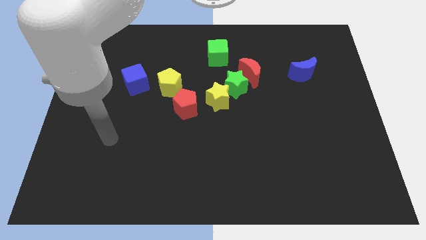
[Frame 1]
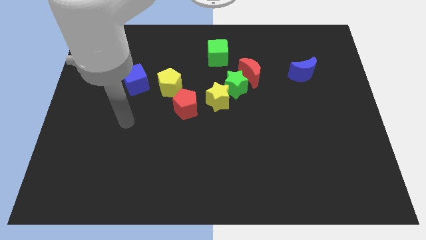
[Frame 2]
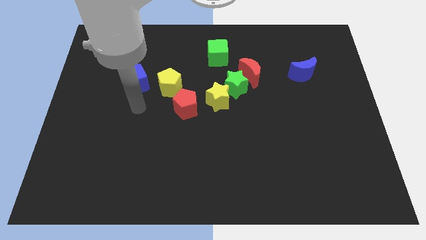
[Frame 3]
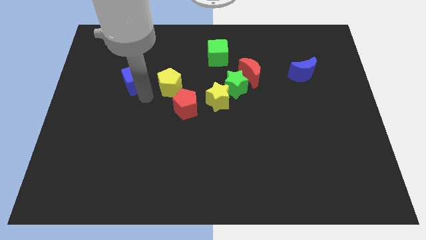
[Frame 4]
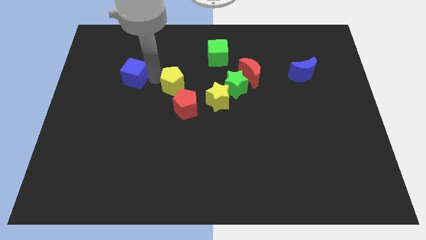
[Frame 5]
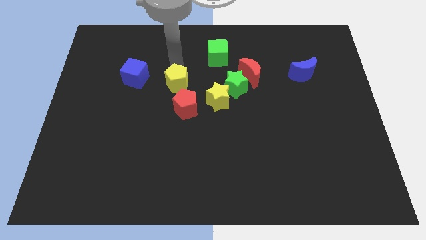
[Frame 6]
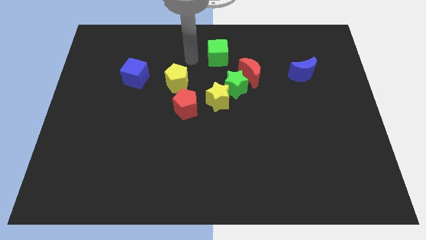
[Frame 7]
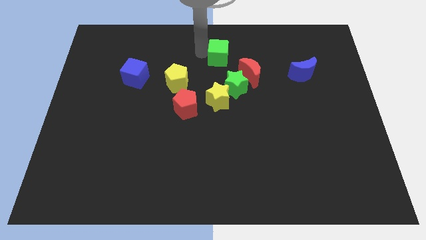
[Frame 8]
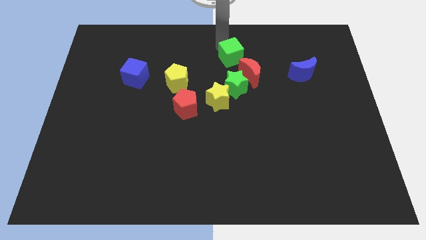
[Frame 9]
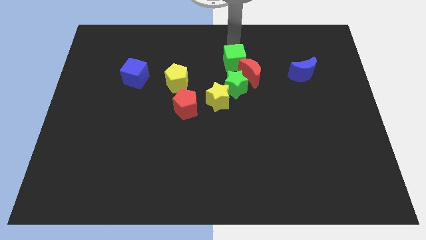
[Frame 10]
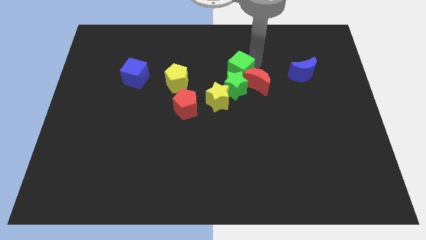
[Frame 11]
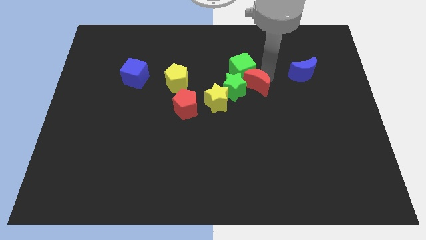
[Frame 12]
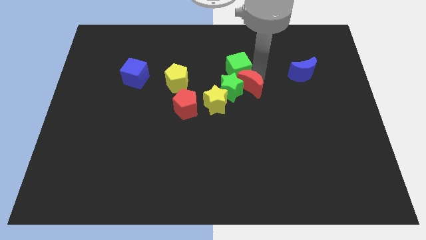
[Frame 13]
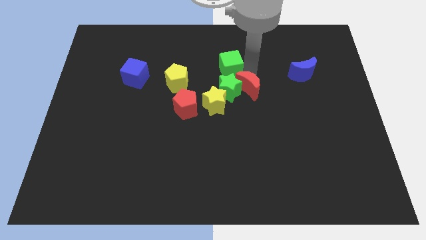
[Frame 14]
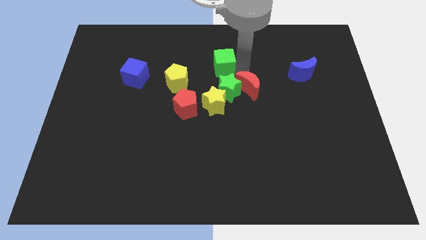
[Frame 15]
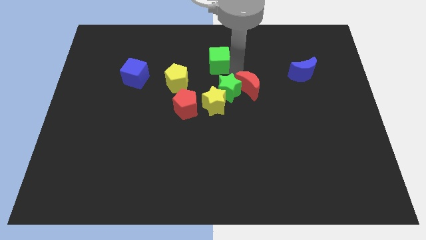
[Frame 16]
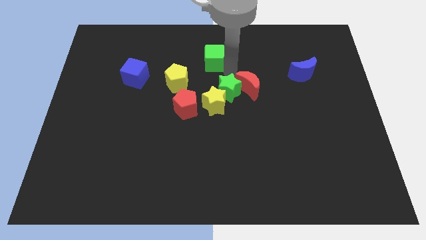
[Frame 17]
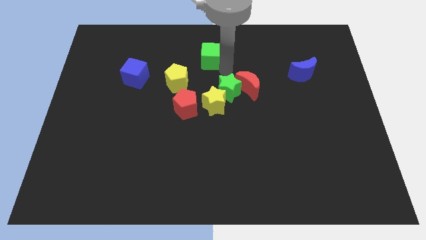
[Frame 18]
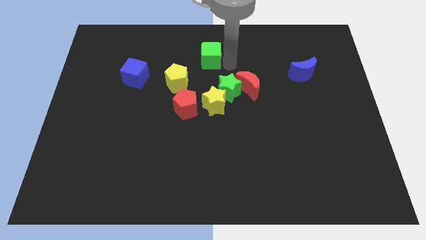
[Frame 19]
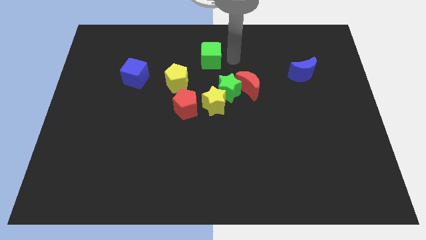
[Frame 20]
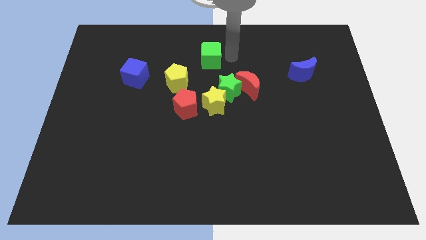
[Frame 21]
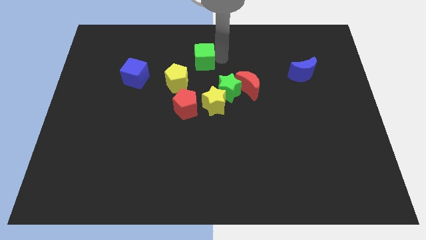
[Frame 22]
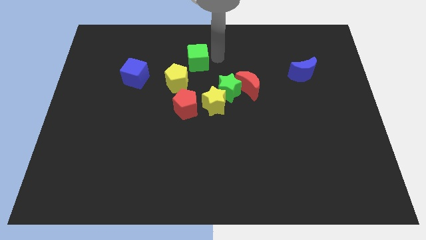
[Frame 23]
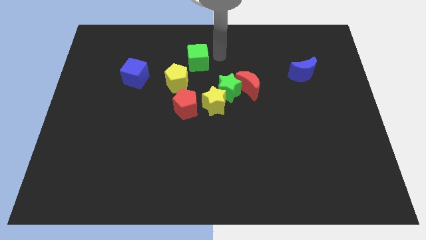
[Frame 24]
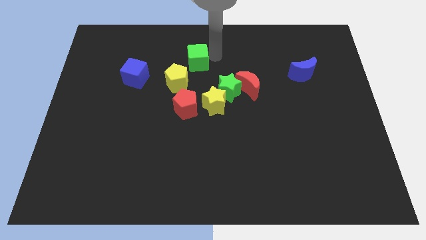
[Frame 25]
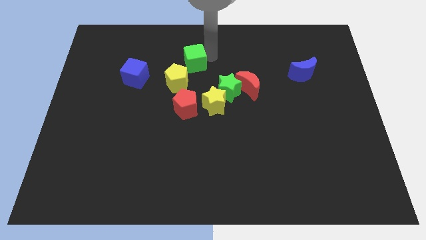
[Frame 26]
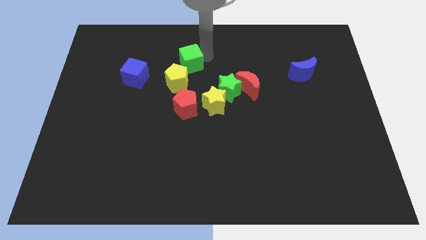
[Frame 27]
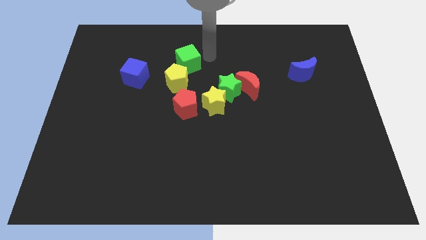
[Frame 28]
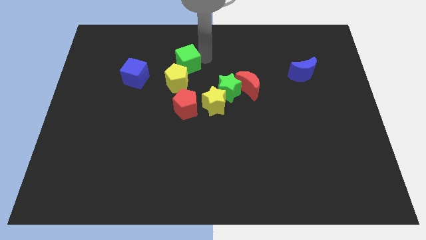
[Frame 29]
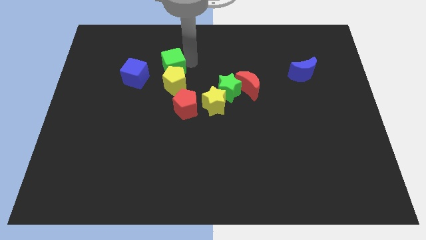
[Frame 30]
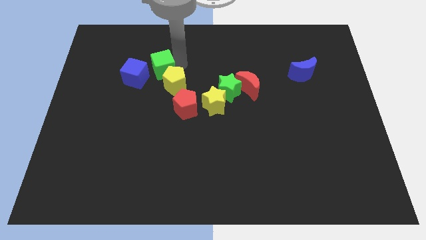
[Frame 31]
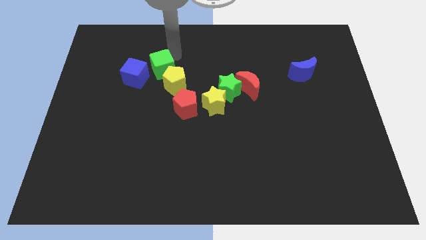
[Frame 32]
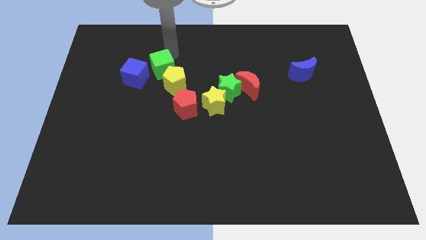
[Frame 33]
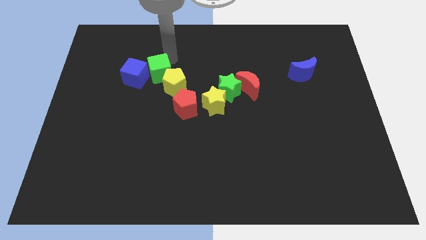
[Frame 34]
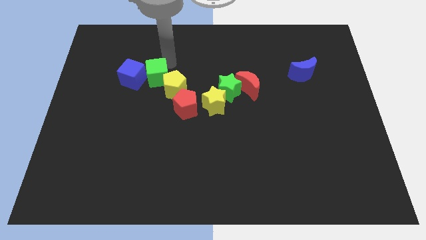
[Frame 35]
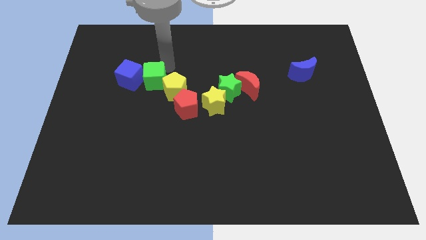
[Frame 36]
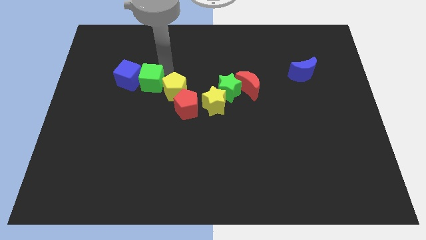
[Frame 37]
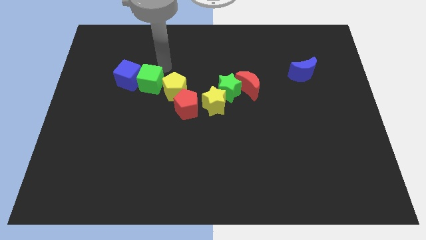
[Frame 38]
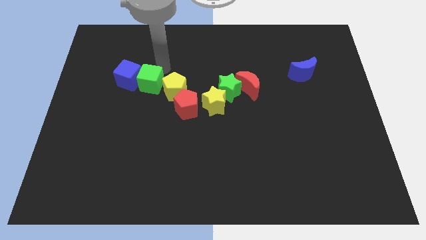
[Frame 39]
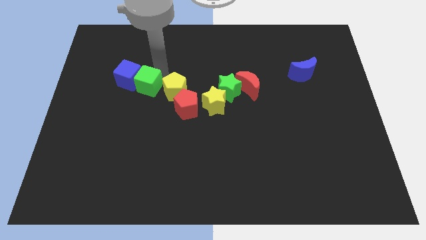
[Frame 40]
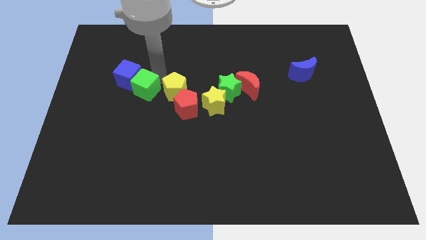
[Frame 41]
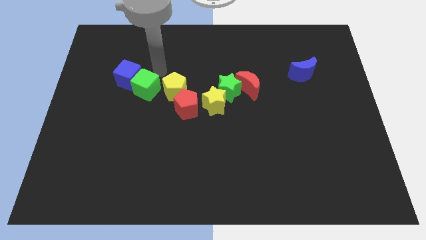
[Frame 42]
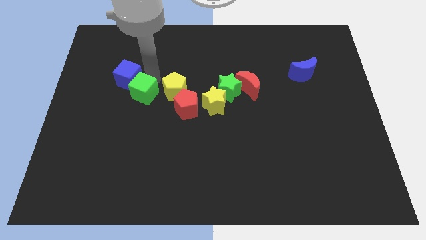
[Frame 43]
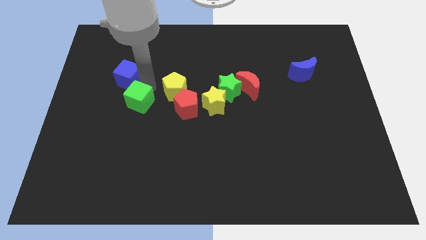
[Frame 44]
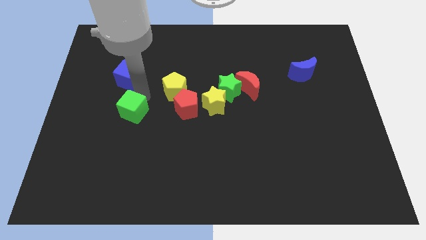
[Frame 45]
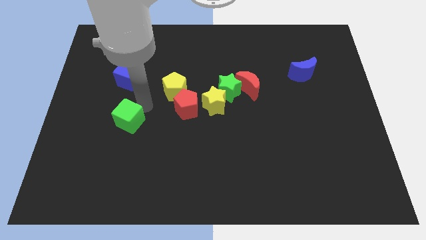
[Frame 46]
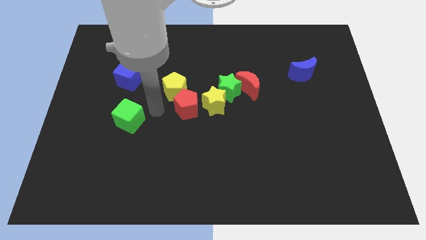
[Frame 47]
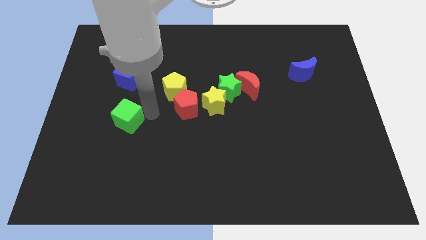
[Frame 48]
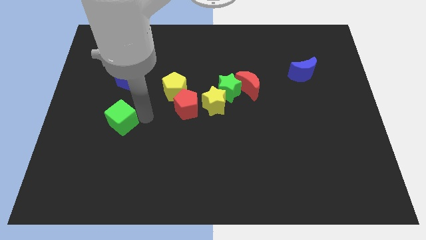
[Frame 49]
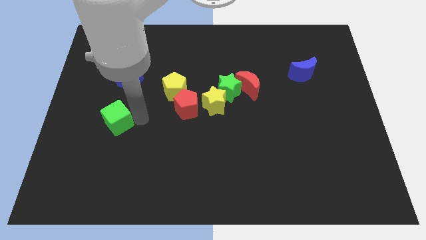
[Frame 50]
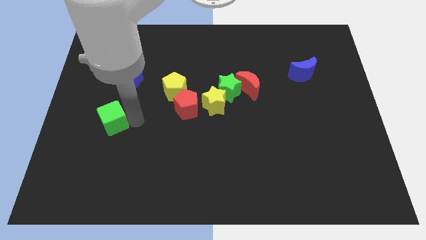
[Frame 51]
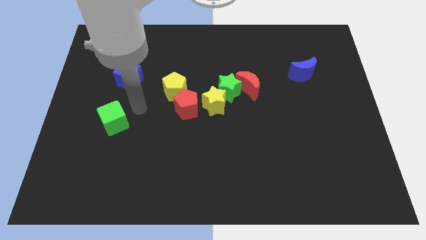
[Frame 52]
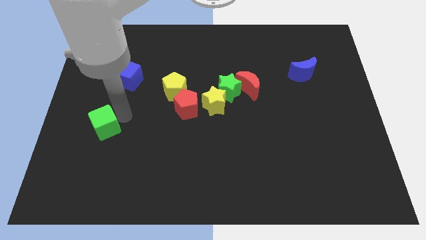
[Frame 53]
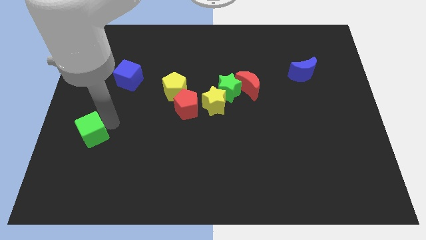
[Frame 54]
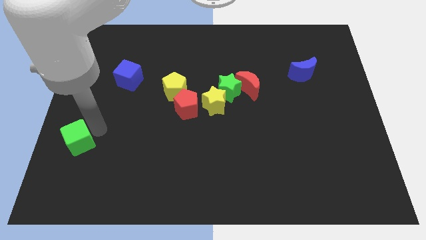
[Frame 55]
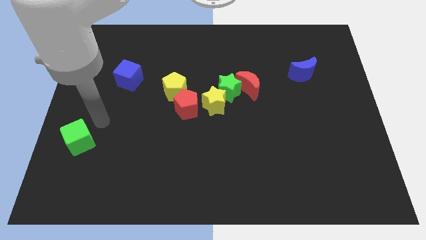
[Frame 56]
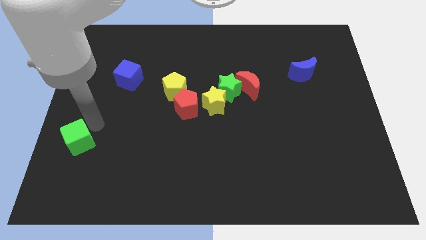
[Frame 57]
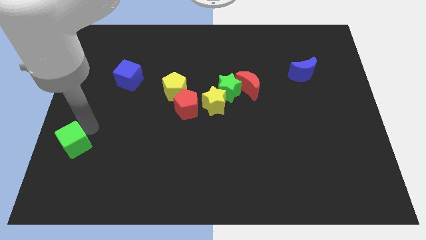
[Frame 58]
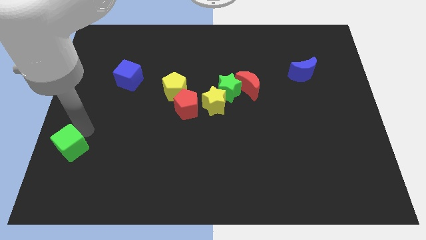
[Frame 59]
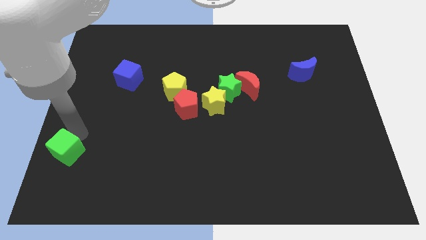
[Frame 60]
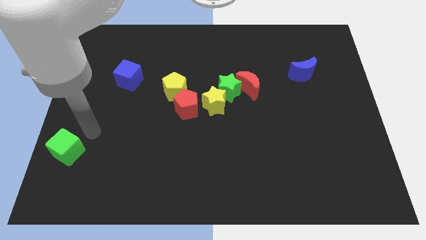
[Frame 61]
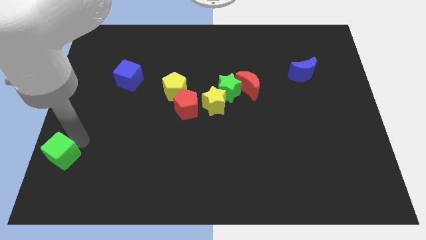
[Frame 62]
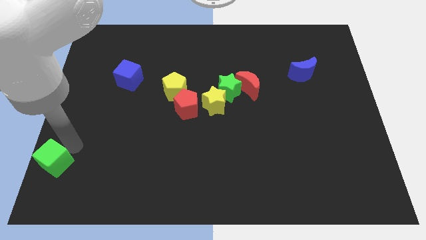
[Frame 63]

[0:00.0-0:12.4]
move the green cube to the bottom left of the board
